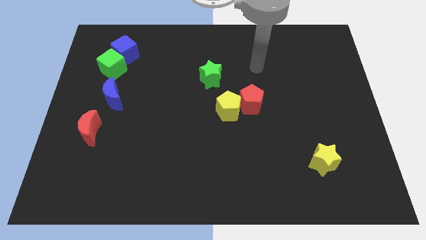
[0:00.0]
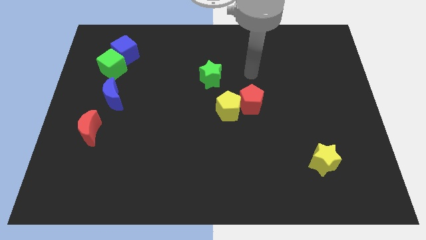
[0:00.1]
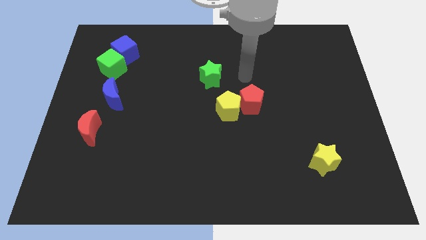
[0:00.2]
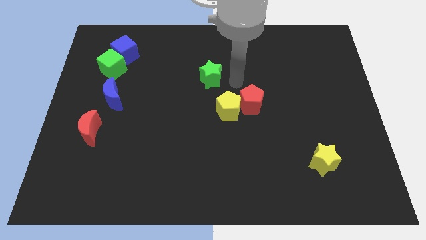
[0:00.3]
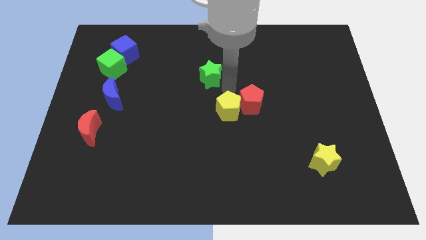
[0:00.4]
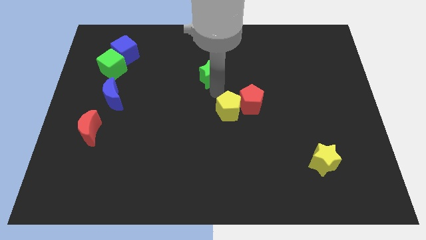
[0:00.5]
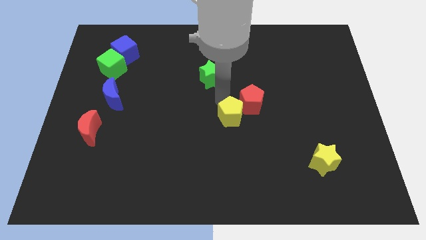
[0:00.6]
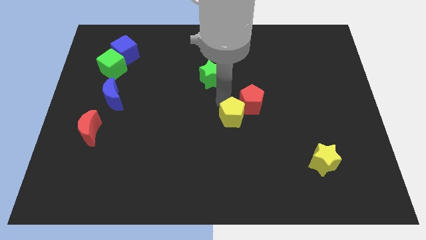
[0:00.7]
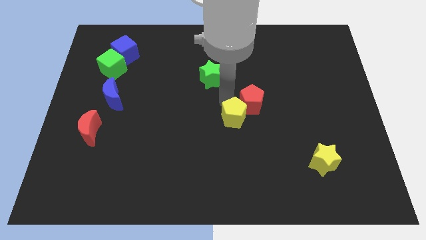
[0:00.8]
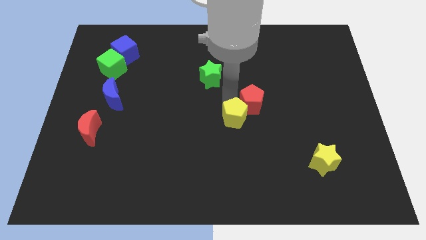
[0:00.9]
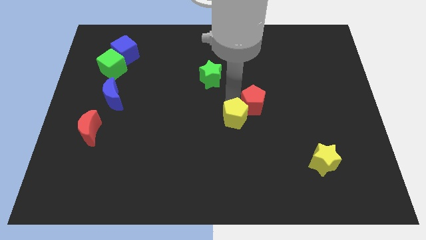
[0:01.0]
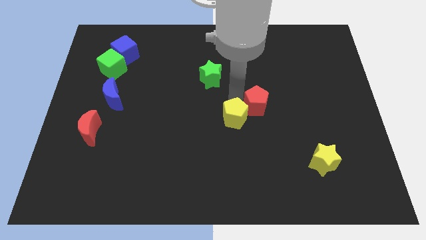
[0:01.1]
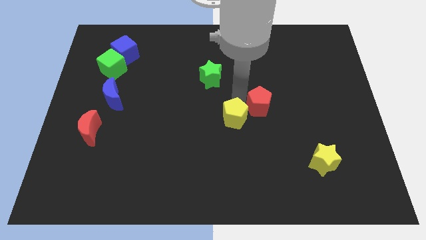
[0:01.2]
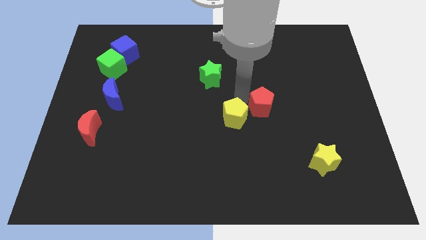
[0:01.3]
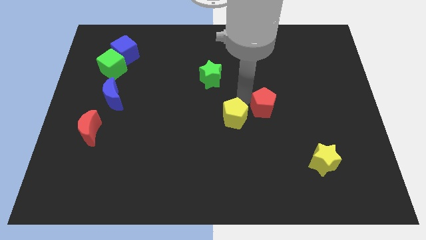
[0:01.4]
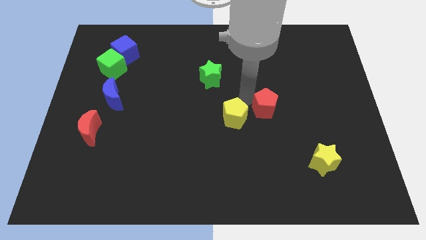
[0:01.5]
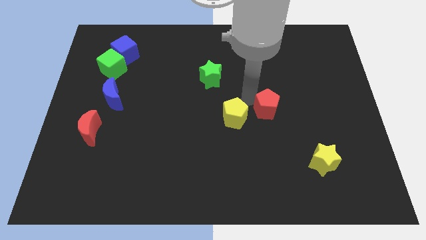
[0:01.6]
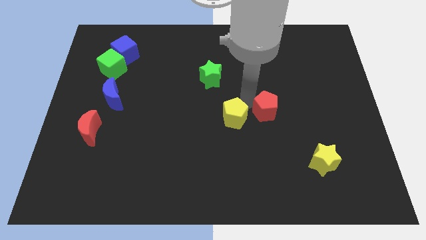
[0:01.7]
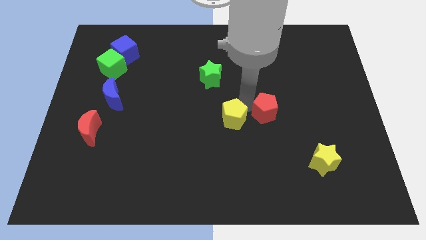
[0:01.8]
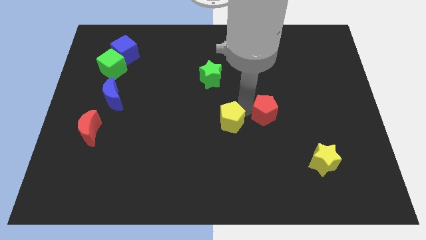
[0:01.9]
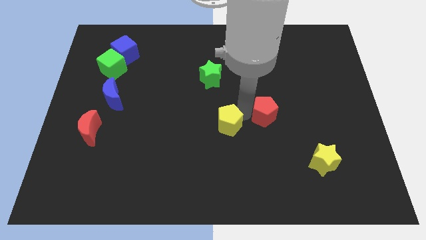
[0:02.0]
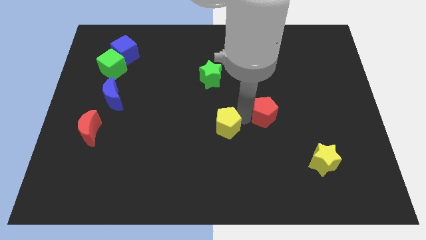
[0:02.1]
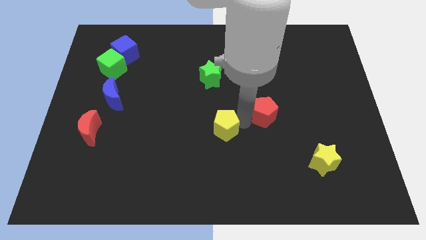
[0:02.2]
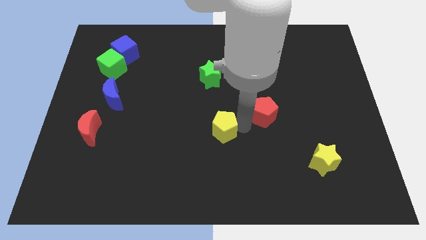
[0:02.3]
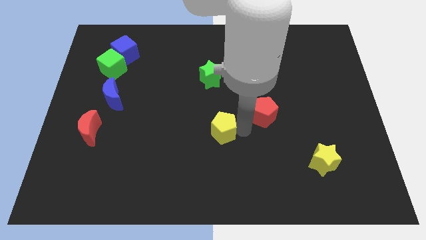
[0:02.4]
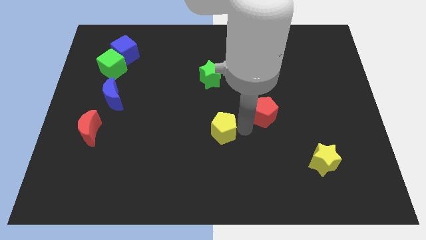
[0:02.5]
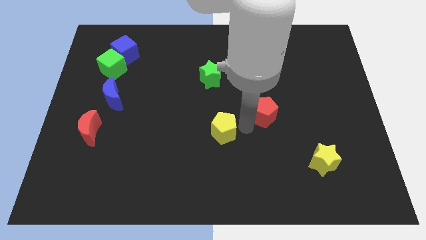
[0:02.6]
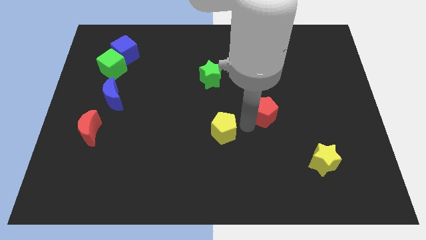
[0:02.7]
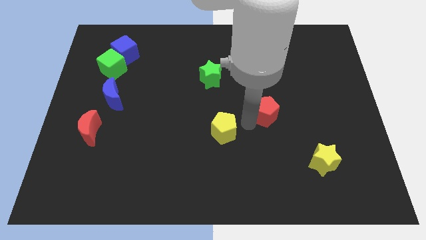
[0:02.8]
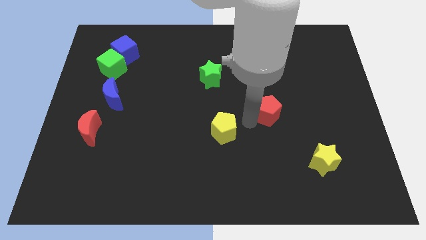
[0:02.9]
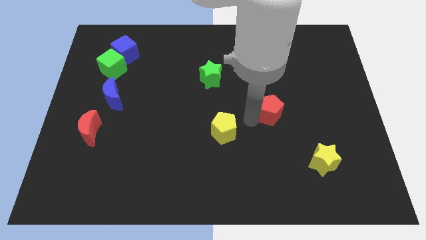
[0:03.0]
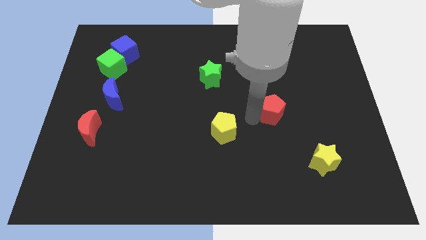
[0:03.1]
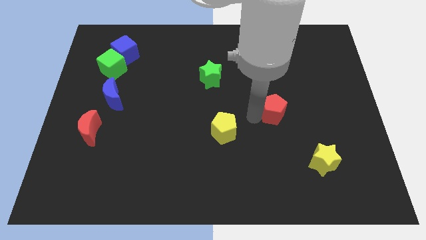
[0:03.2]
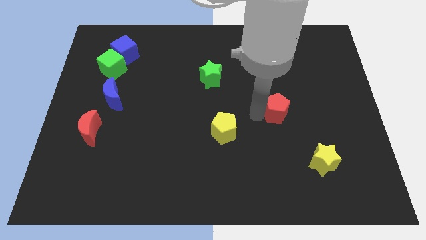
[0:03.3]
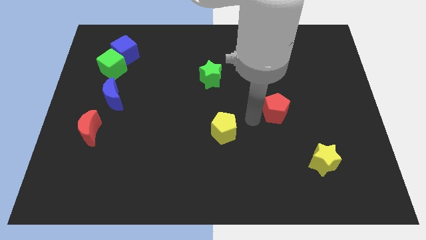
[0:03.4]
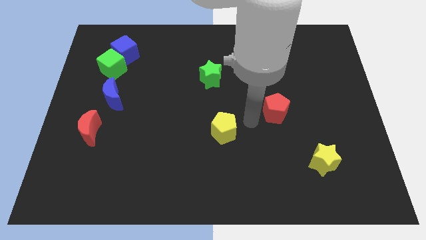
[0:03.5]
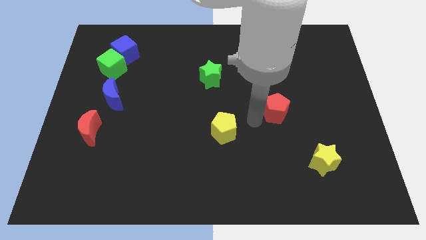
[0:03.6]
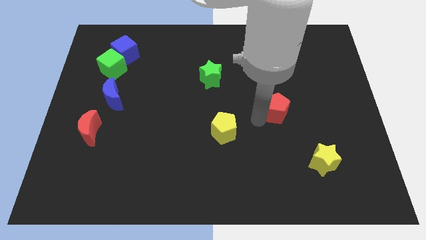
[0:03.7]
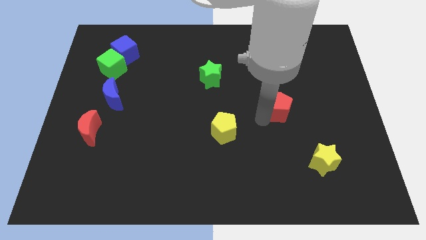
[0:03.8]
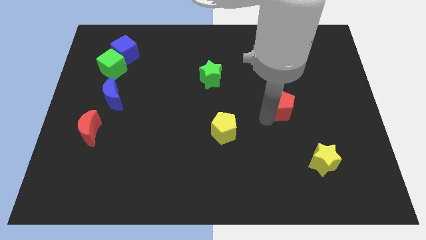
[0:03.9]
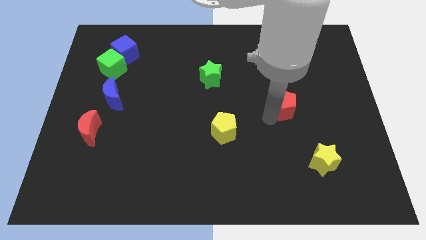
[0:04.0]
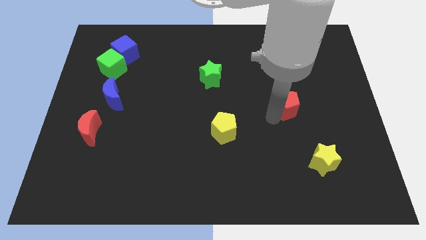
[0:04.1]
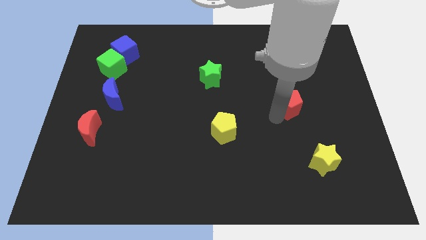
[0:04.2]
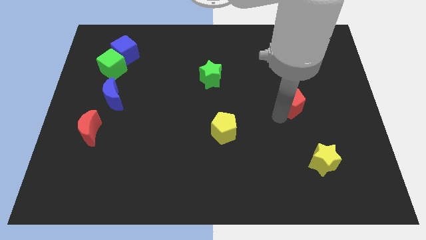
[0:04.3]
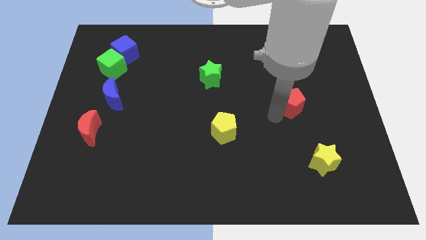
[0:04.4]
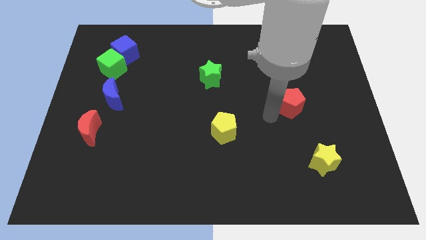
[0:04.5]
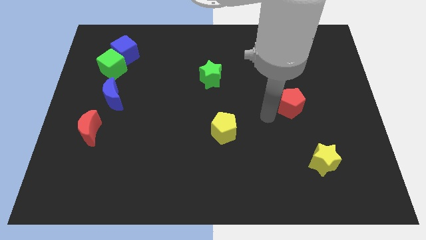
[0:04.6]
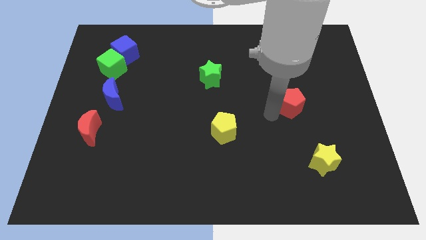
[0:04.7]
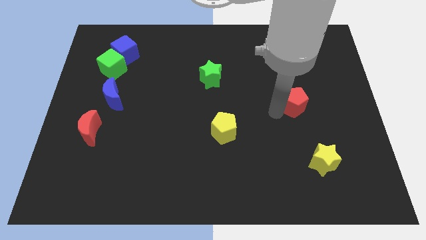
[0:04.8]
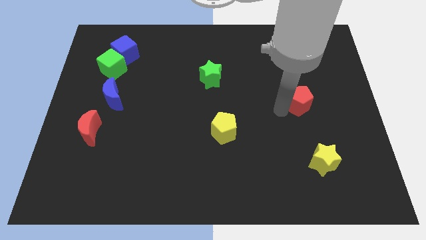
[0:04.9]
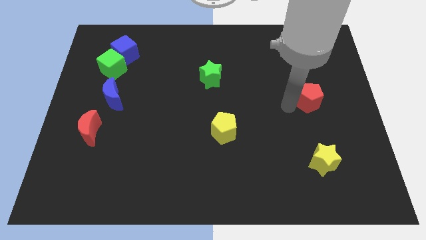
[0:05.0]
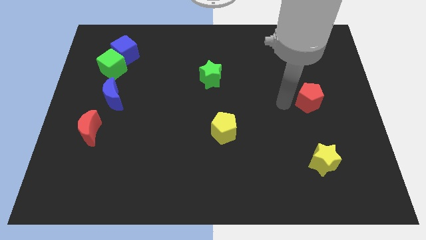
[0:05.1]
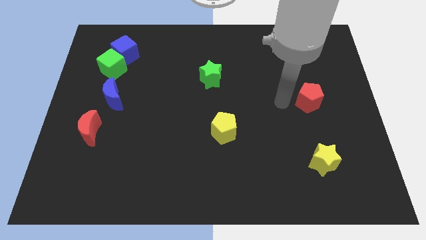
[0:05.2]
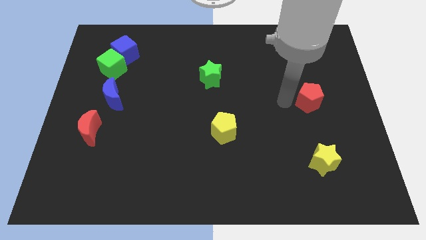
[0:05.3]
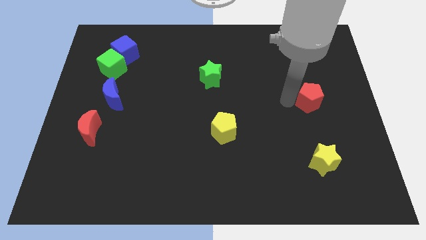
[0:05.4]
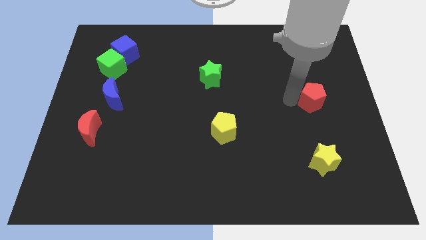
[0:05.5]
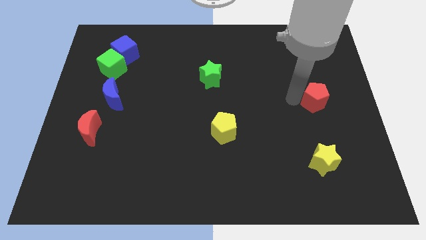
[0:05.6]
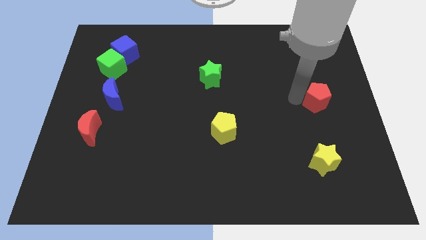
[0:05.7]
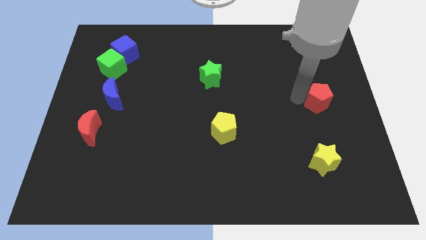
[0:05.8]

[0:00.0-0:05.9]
slide the red pentagon to the right side
